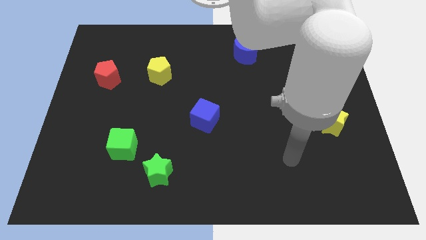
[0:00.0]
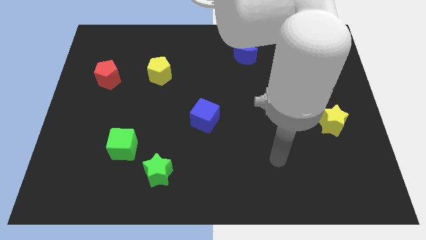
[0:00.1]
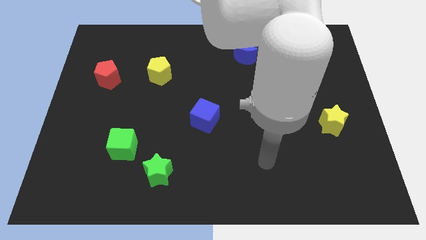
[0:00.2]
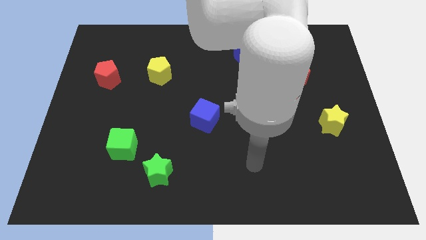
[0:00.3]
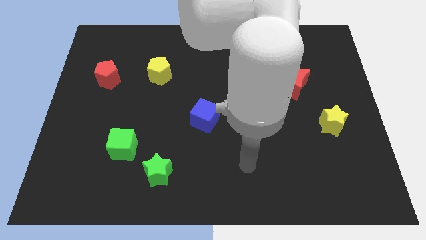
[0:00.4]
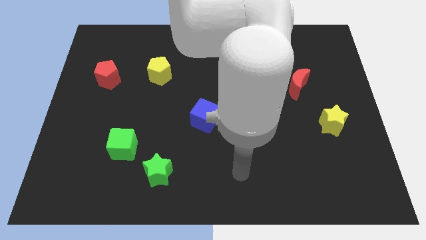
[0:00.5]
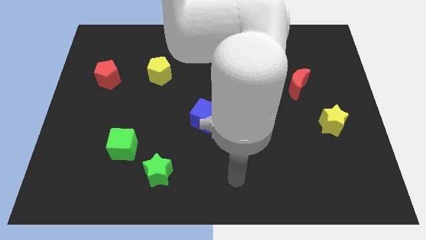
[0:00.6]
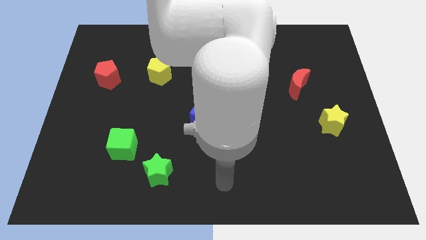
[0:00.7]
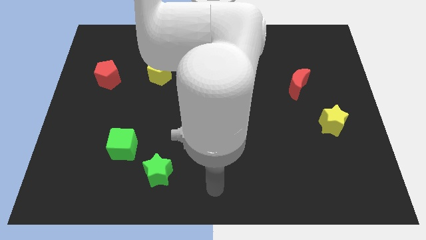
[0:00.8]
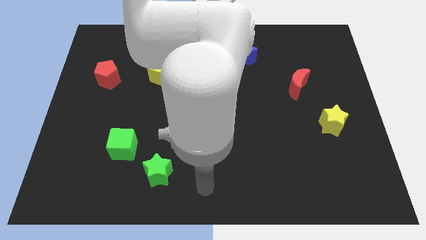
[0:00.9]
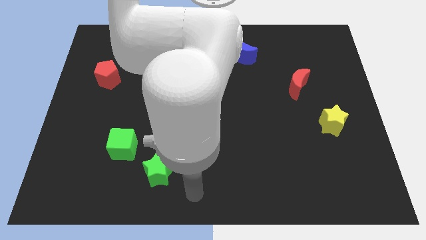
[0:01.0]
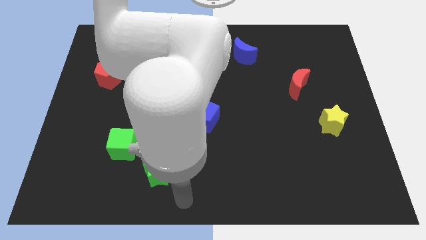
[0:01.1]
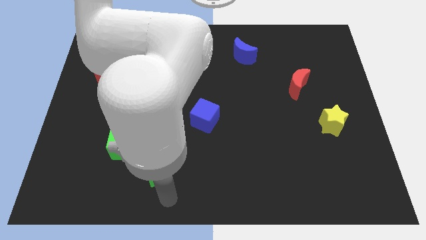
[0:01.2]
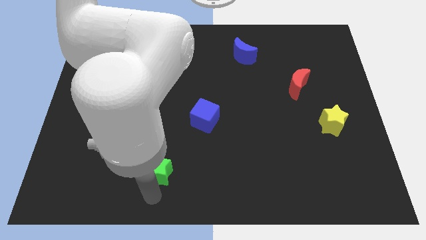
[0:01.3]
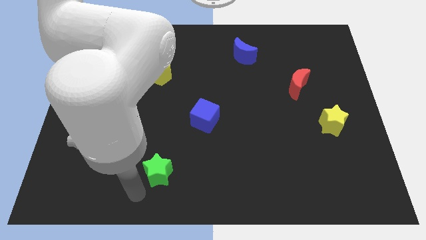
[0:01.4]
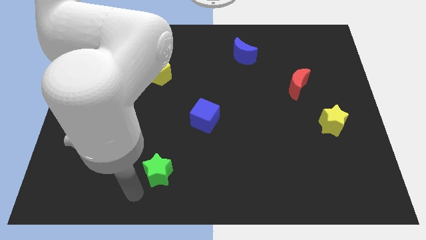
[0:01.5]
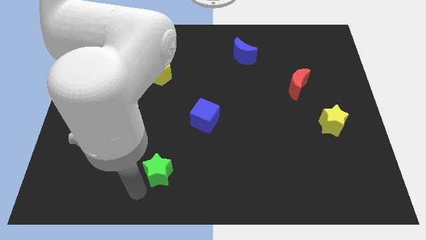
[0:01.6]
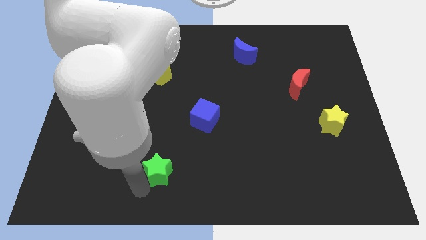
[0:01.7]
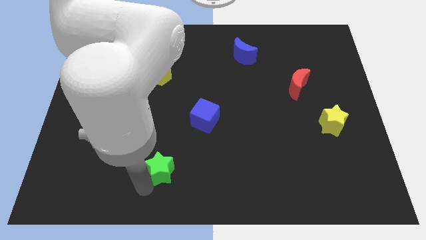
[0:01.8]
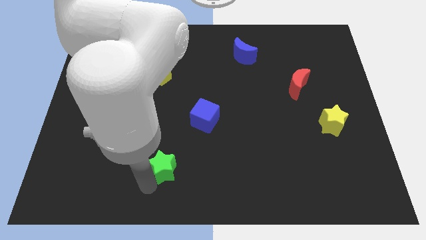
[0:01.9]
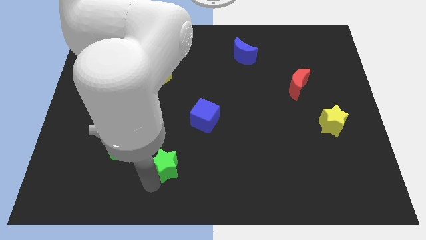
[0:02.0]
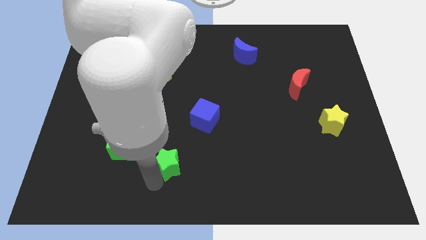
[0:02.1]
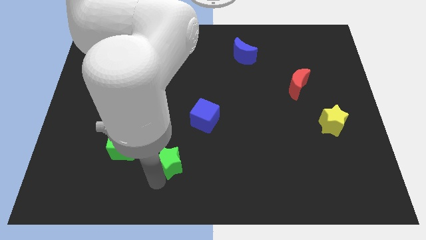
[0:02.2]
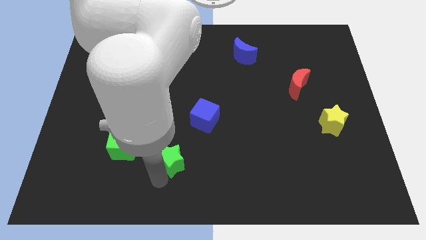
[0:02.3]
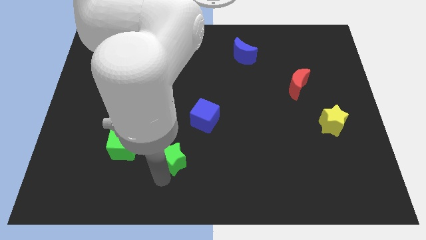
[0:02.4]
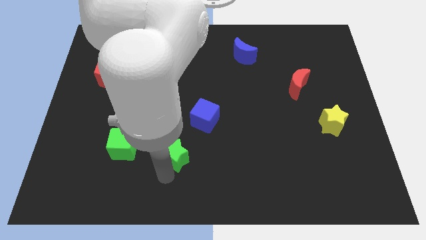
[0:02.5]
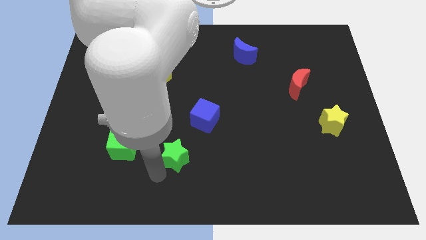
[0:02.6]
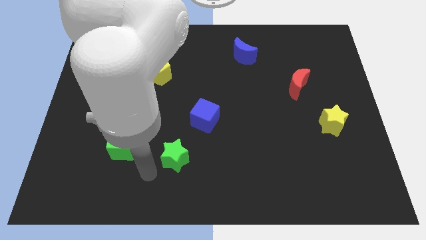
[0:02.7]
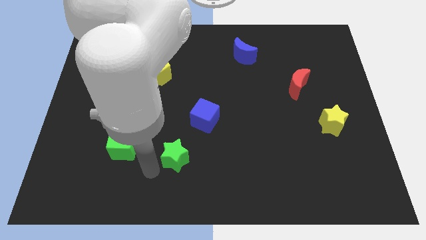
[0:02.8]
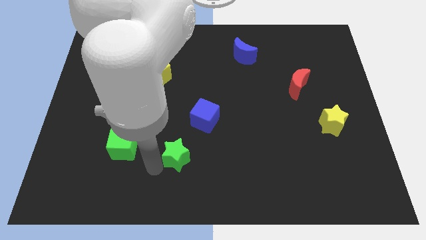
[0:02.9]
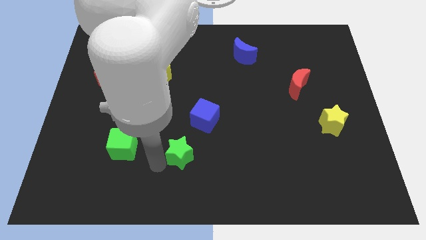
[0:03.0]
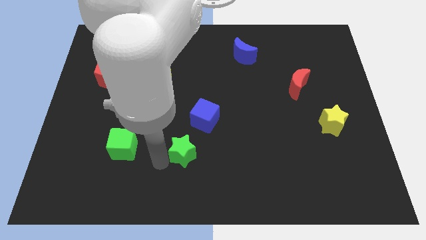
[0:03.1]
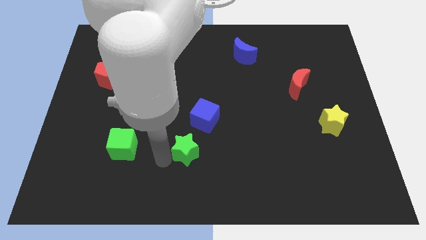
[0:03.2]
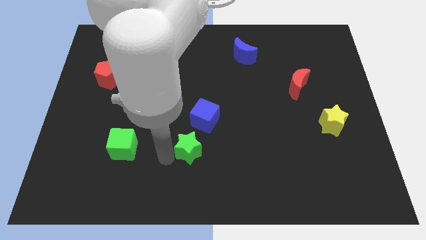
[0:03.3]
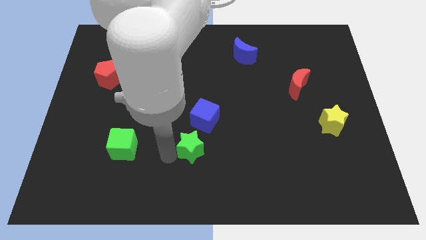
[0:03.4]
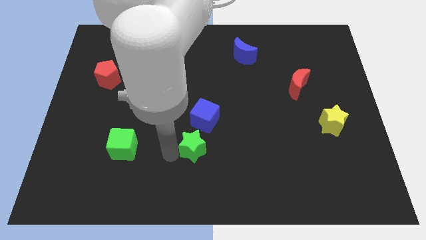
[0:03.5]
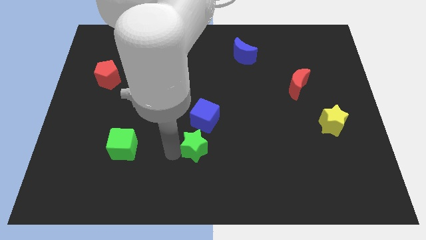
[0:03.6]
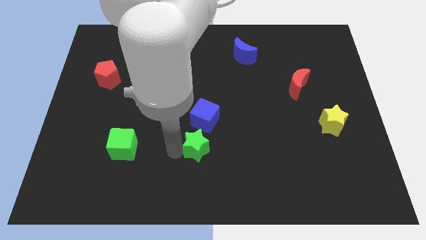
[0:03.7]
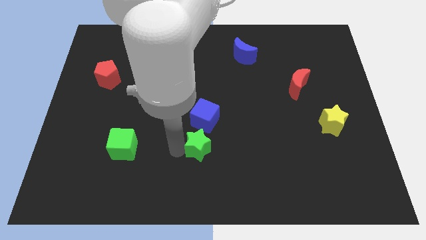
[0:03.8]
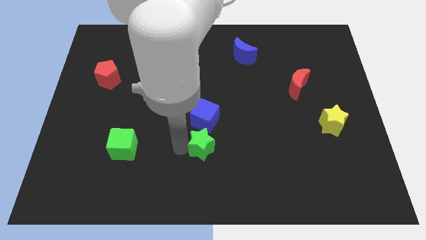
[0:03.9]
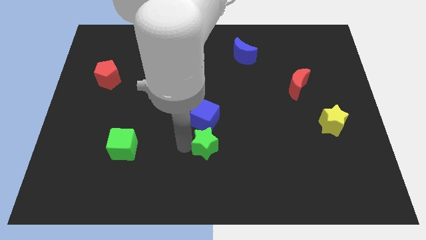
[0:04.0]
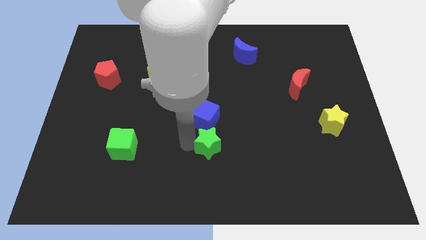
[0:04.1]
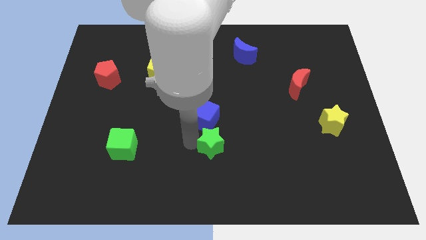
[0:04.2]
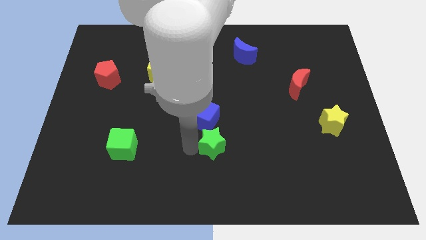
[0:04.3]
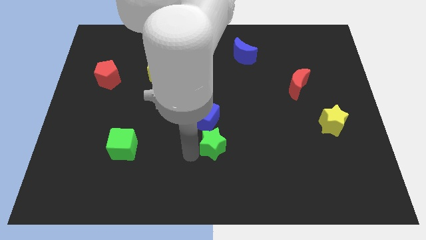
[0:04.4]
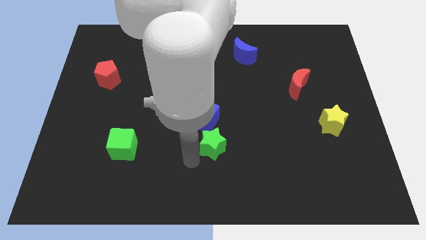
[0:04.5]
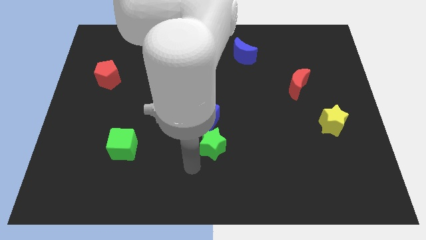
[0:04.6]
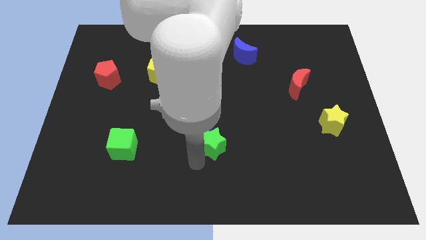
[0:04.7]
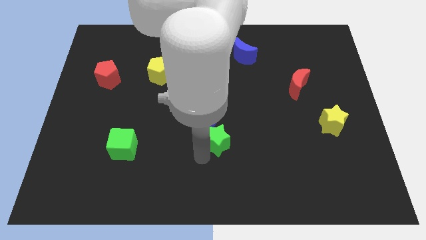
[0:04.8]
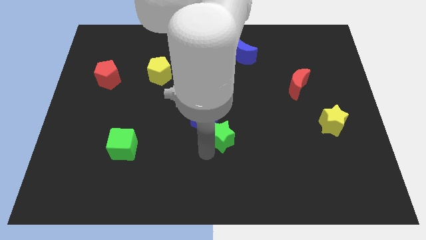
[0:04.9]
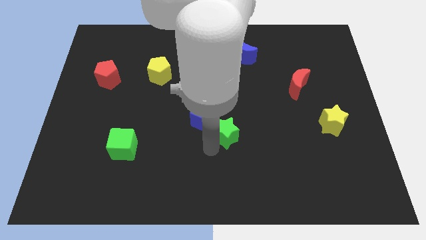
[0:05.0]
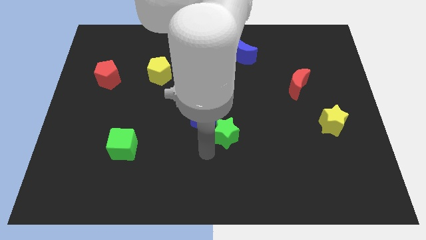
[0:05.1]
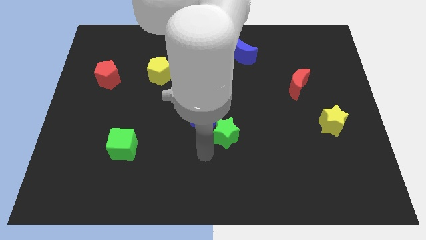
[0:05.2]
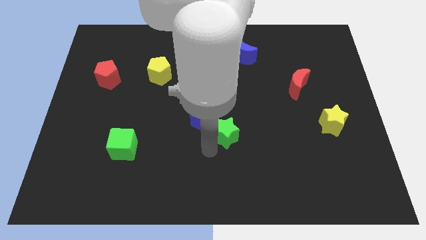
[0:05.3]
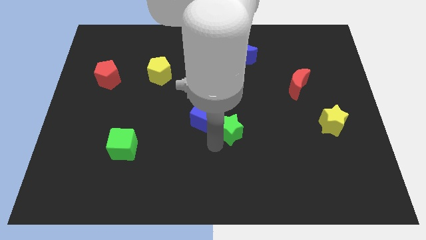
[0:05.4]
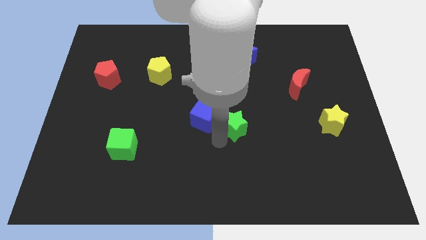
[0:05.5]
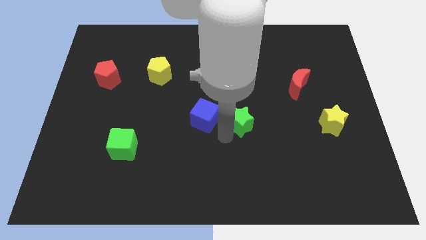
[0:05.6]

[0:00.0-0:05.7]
move the green star up and right diagonally

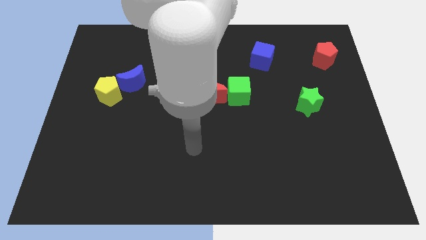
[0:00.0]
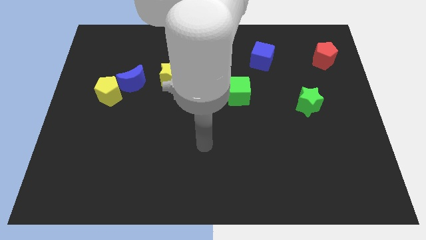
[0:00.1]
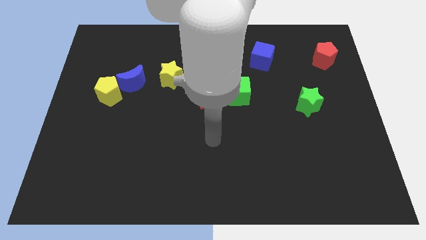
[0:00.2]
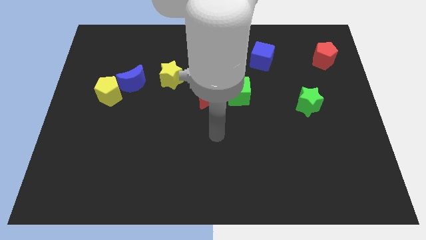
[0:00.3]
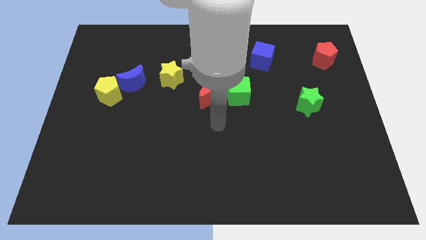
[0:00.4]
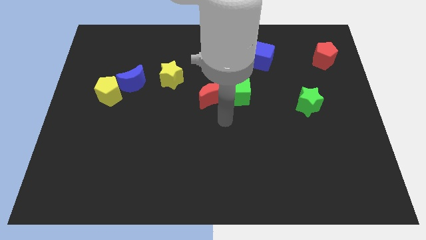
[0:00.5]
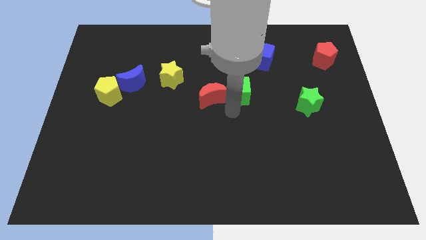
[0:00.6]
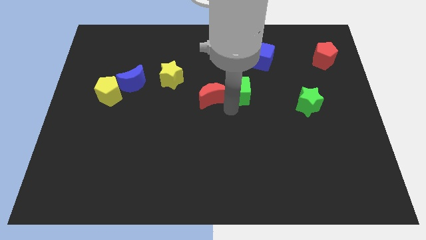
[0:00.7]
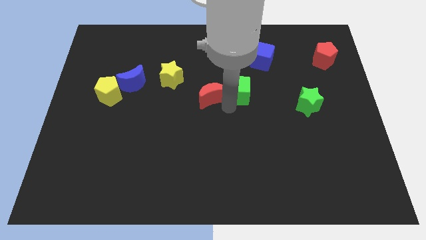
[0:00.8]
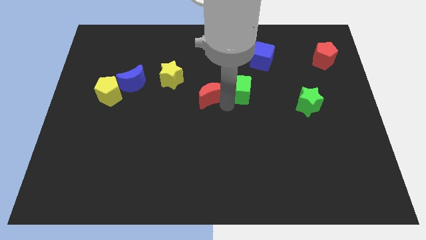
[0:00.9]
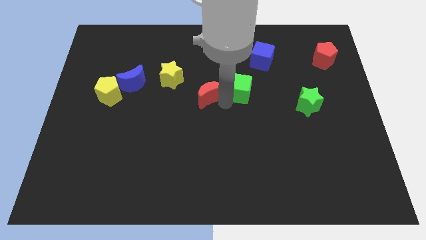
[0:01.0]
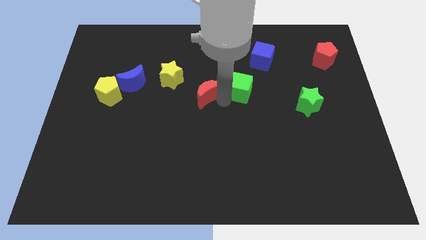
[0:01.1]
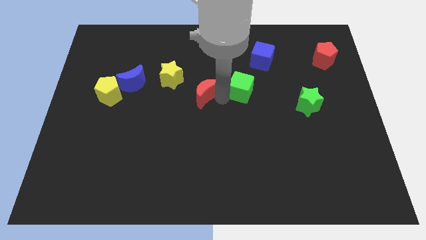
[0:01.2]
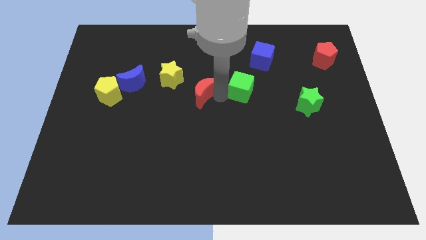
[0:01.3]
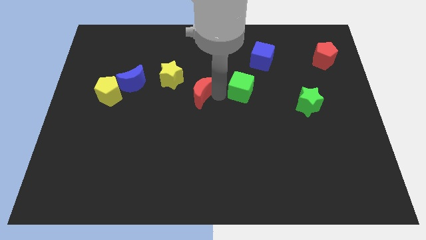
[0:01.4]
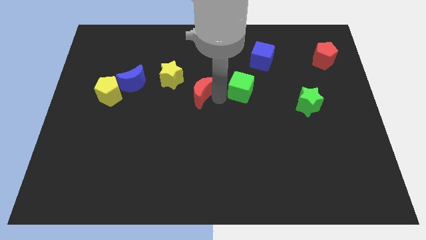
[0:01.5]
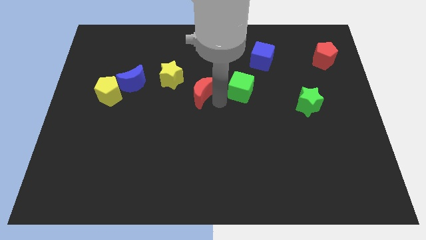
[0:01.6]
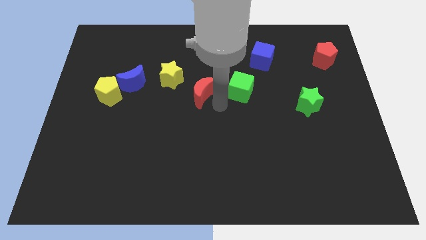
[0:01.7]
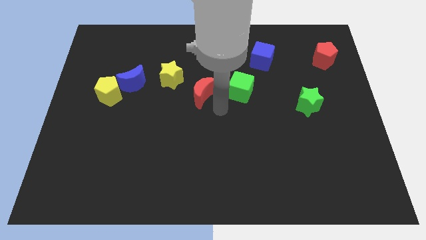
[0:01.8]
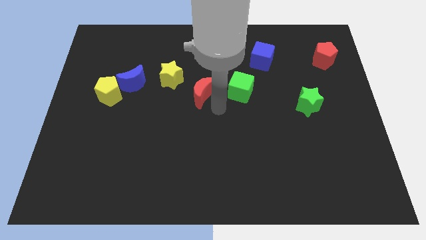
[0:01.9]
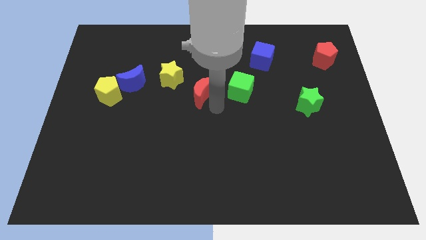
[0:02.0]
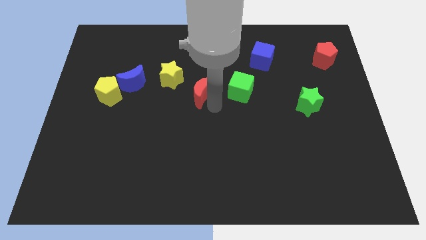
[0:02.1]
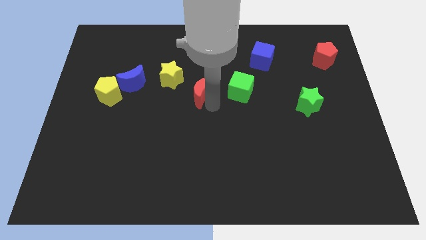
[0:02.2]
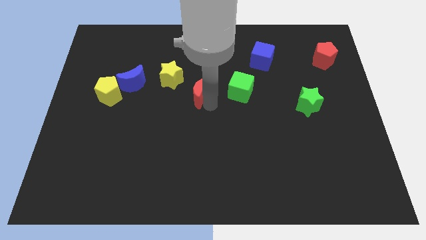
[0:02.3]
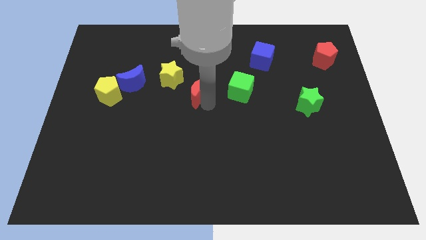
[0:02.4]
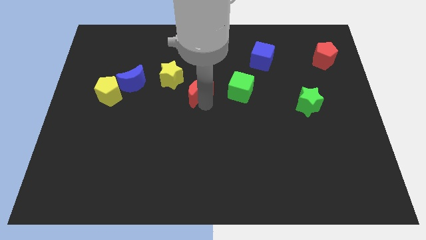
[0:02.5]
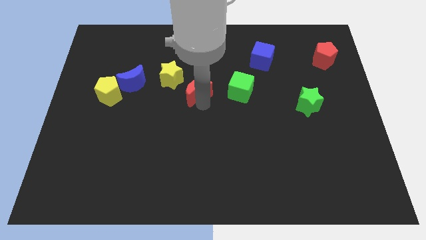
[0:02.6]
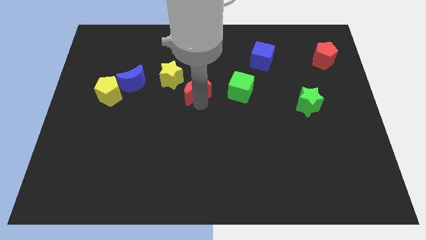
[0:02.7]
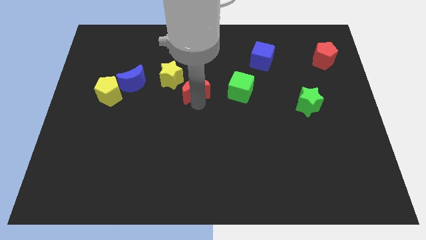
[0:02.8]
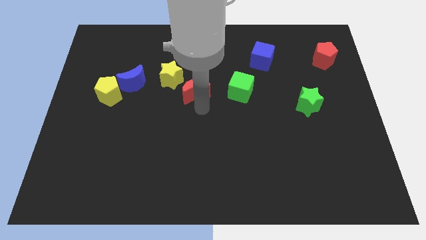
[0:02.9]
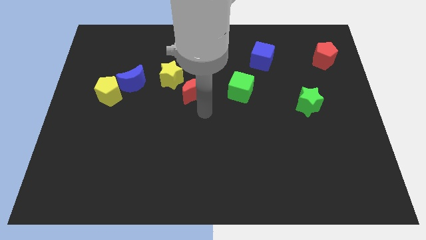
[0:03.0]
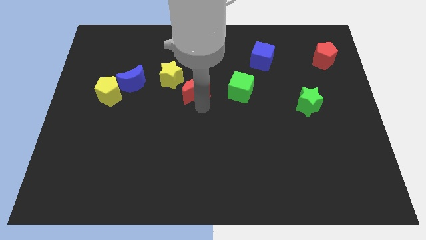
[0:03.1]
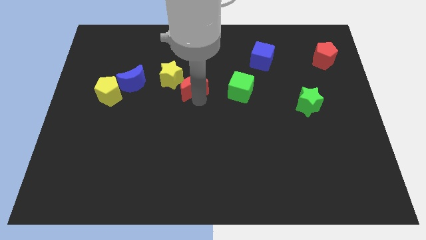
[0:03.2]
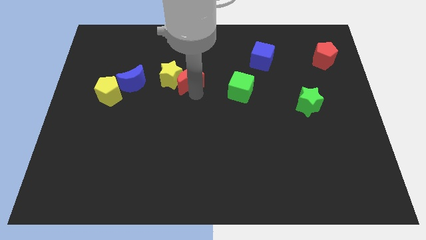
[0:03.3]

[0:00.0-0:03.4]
slightly move the red moon up and left
